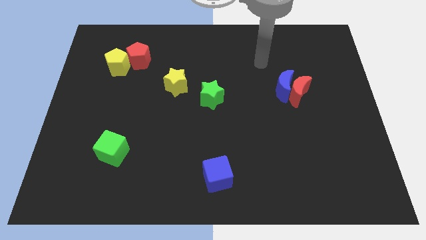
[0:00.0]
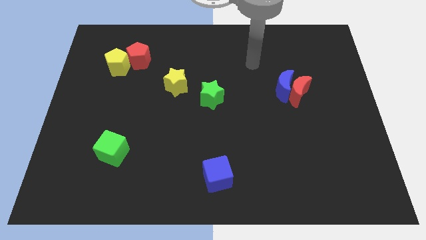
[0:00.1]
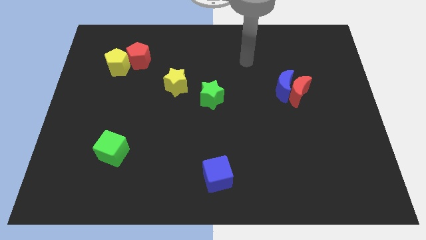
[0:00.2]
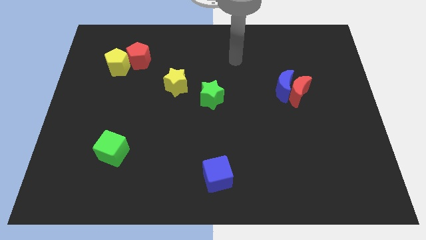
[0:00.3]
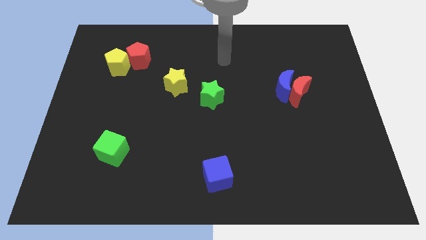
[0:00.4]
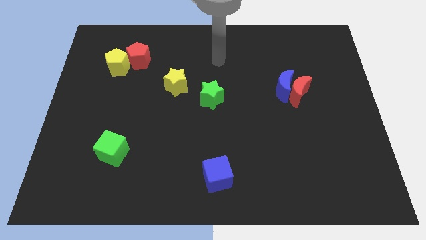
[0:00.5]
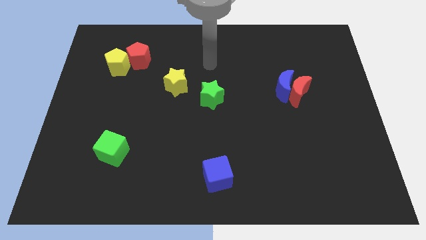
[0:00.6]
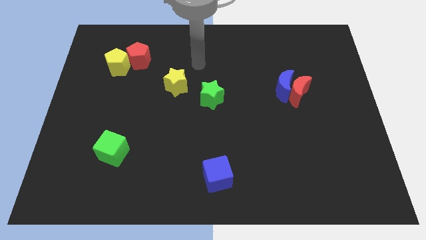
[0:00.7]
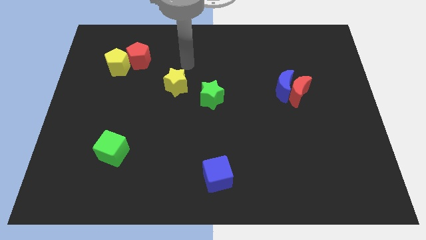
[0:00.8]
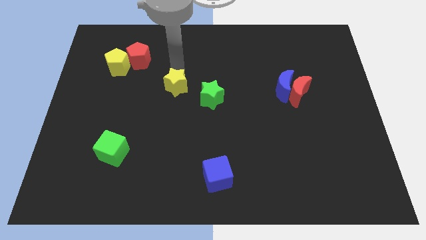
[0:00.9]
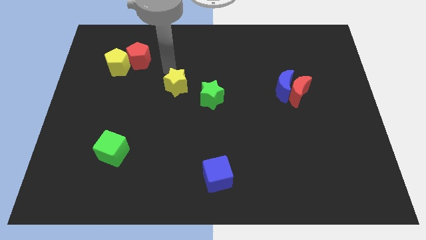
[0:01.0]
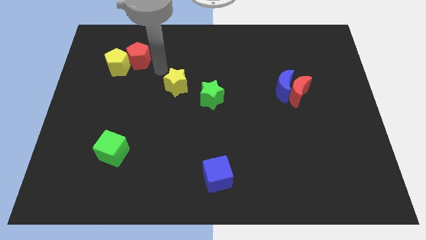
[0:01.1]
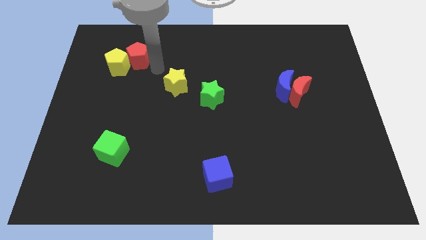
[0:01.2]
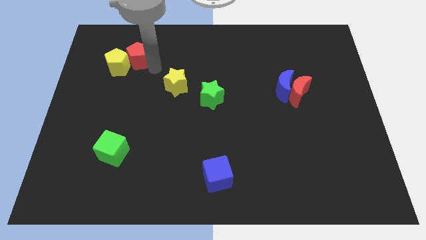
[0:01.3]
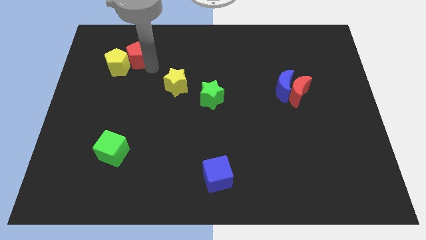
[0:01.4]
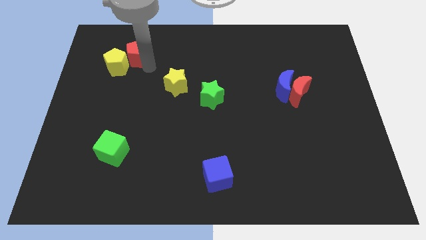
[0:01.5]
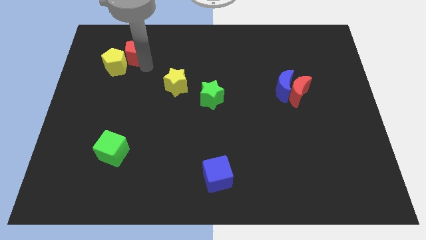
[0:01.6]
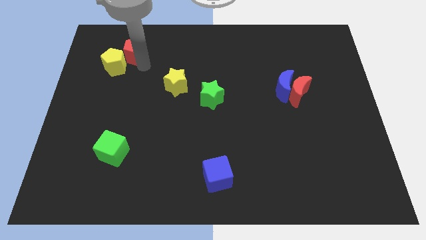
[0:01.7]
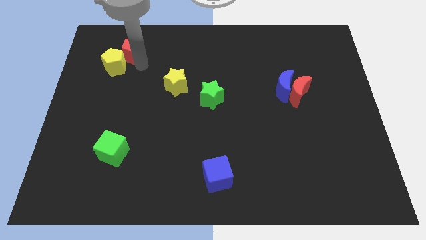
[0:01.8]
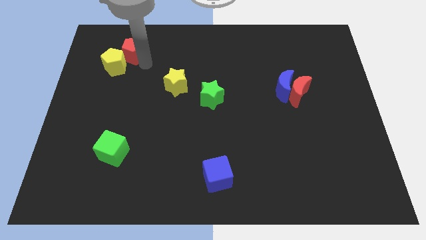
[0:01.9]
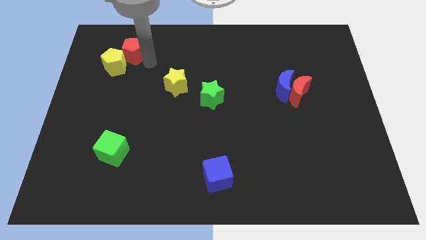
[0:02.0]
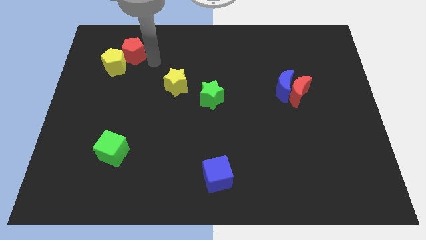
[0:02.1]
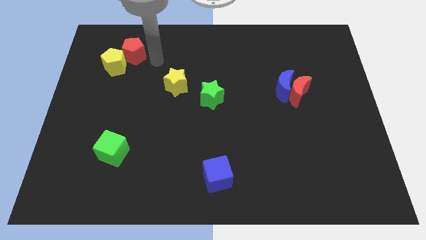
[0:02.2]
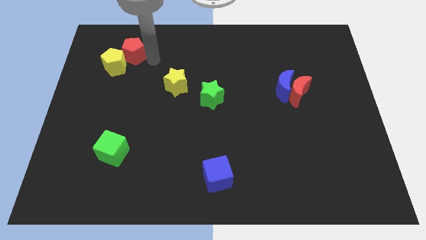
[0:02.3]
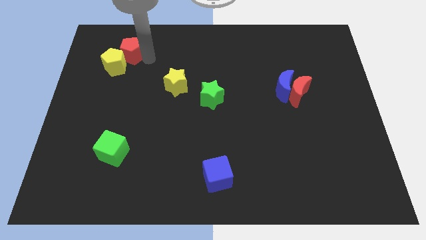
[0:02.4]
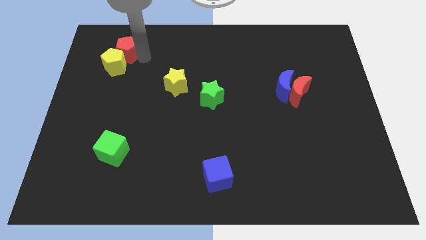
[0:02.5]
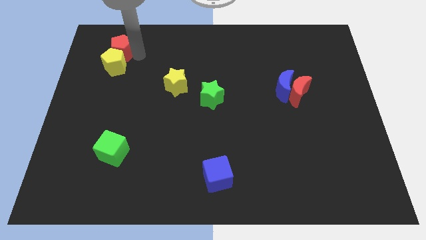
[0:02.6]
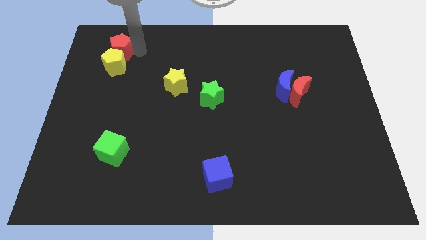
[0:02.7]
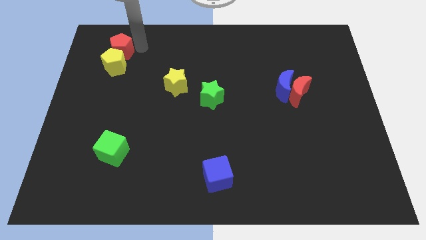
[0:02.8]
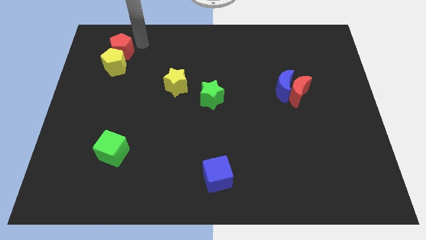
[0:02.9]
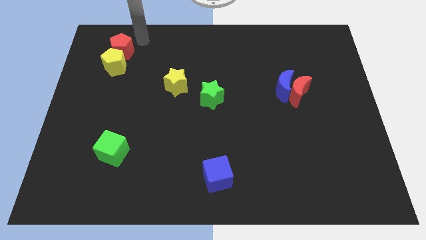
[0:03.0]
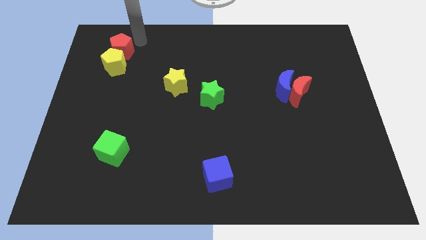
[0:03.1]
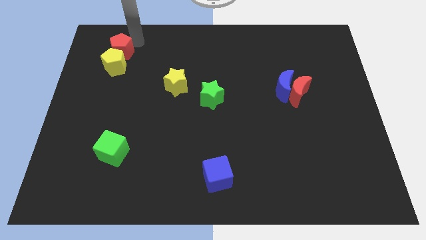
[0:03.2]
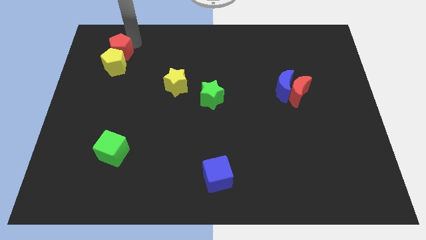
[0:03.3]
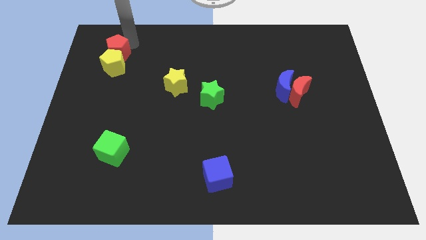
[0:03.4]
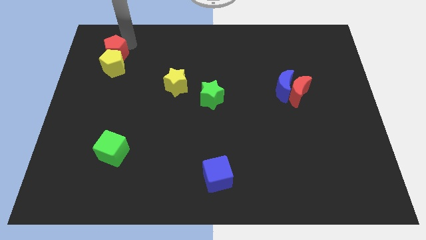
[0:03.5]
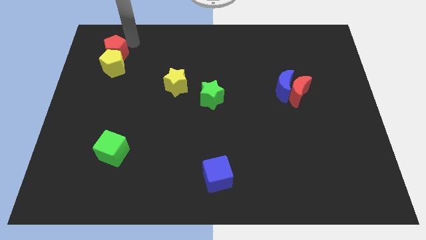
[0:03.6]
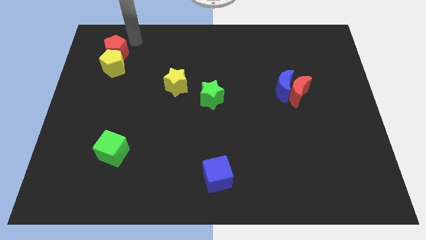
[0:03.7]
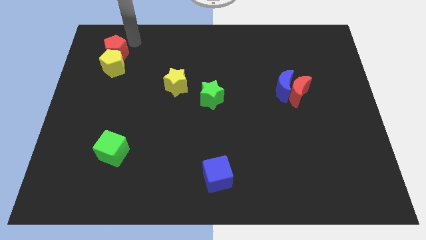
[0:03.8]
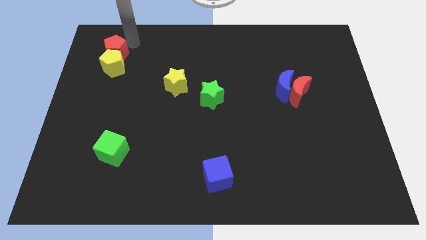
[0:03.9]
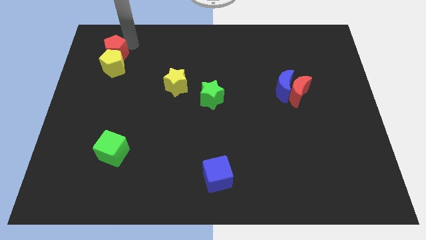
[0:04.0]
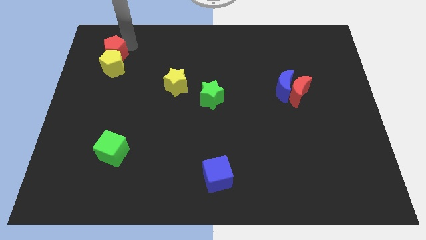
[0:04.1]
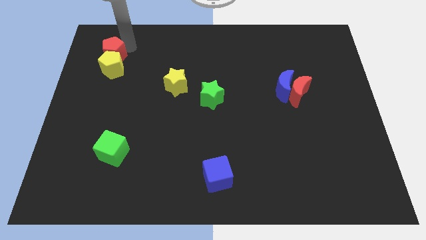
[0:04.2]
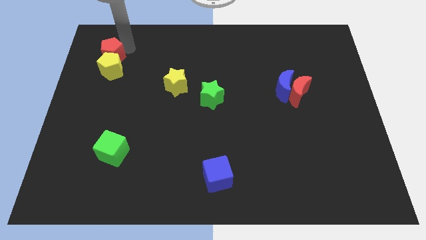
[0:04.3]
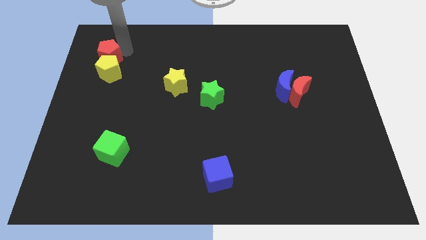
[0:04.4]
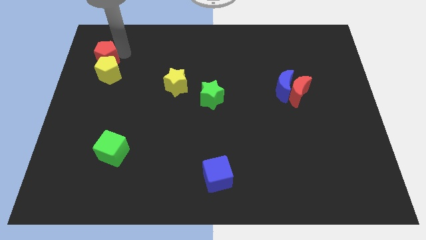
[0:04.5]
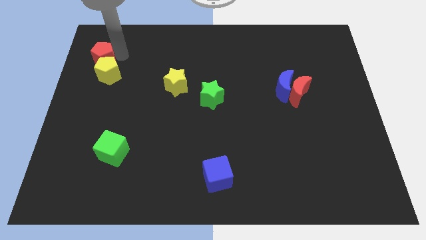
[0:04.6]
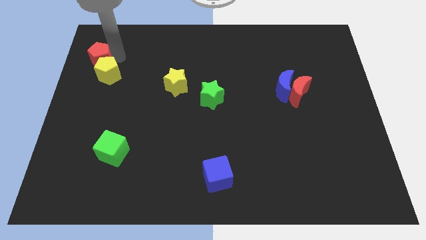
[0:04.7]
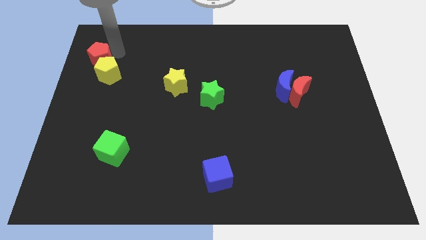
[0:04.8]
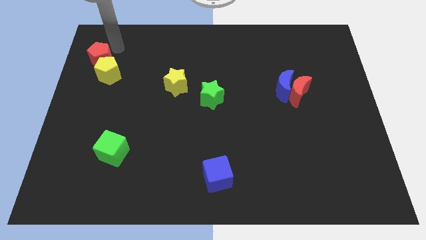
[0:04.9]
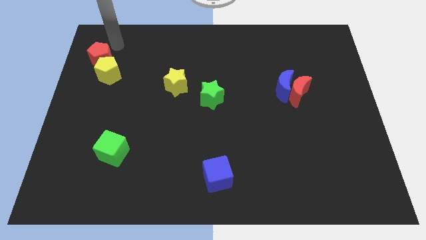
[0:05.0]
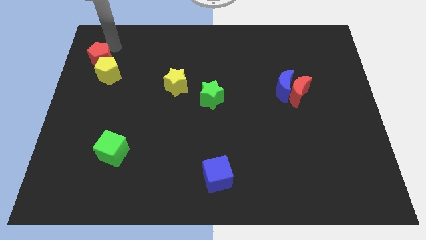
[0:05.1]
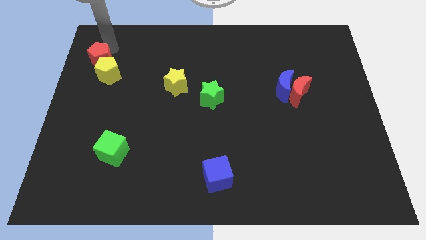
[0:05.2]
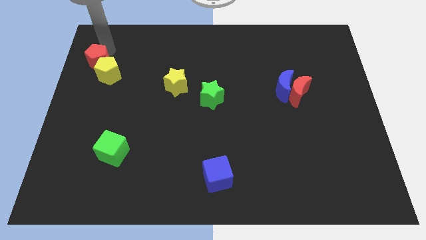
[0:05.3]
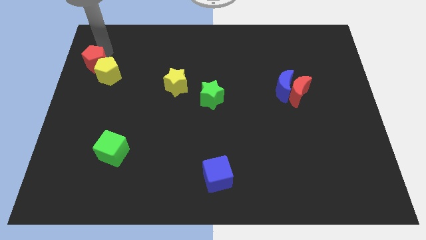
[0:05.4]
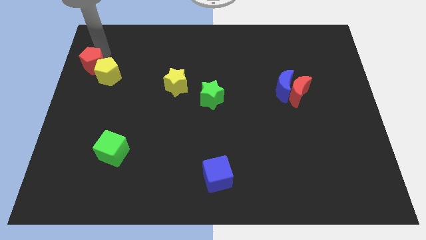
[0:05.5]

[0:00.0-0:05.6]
slide the red pentagon to the left side
